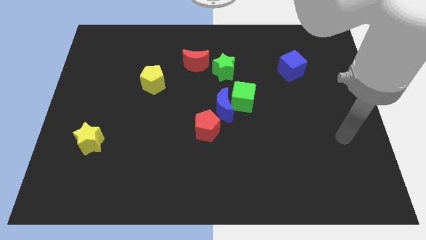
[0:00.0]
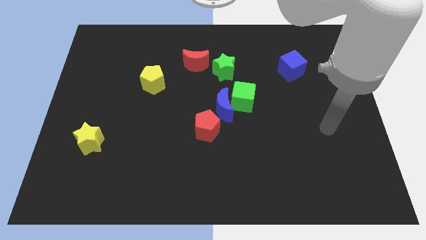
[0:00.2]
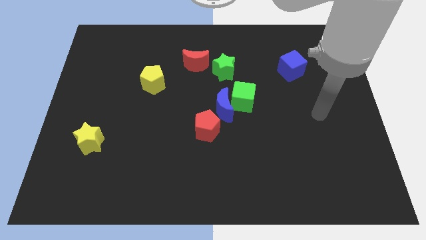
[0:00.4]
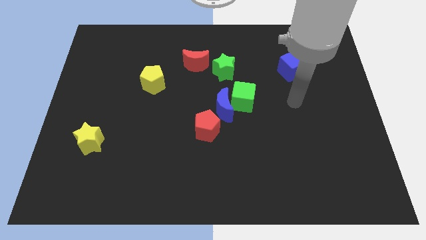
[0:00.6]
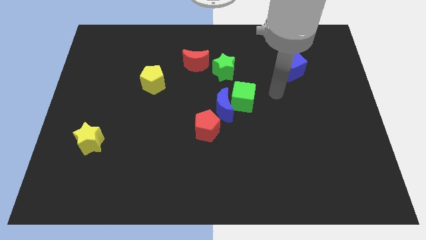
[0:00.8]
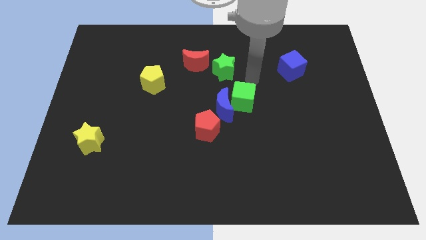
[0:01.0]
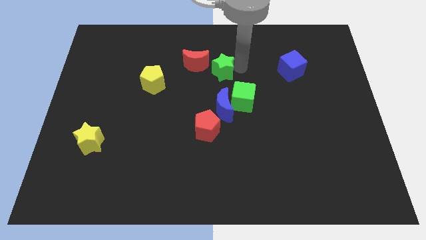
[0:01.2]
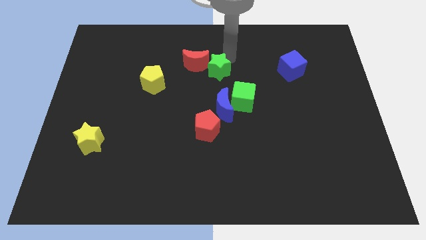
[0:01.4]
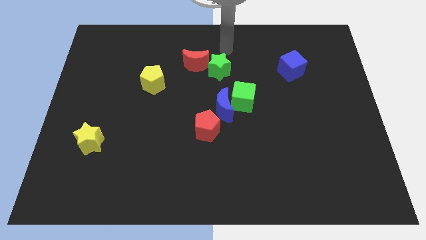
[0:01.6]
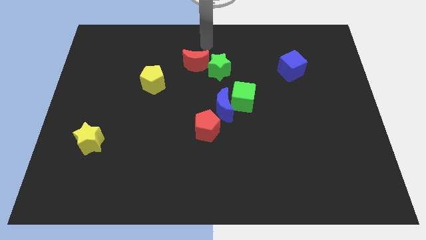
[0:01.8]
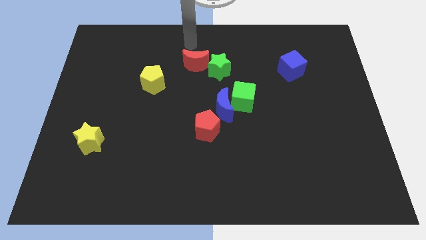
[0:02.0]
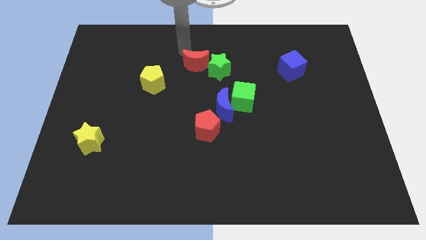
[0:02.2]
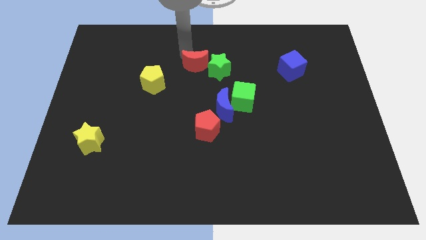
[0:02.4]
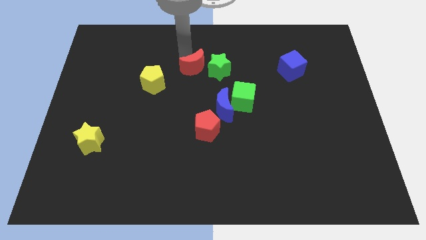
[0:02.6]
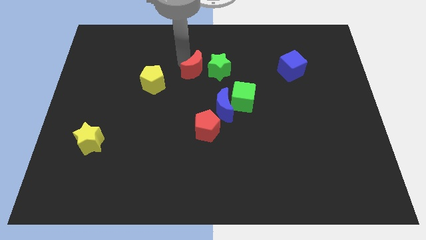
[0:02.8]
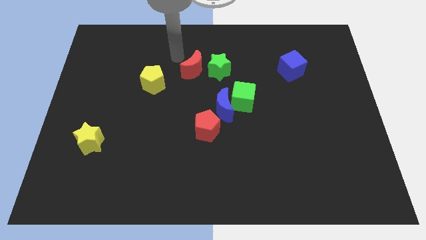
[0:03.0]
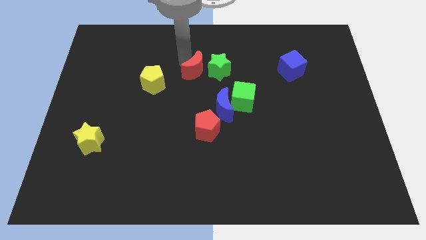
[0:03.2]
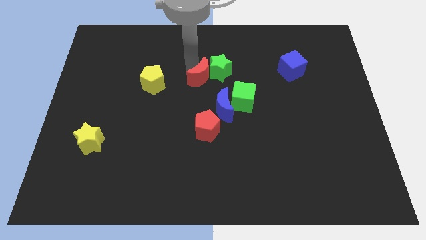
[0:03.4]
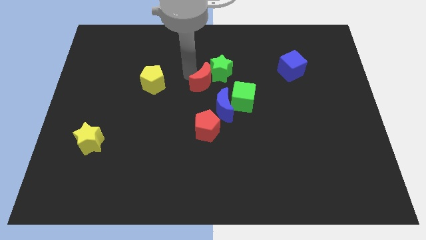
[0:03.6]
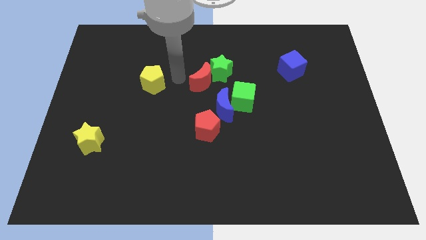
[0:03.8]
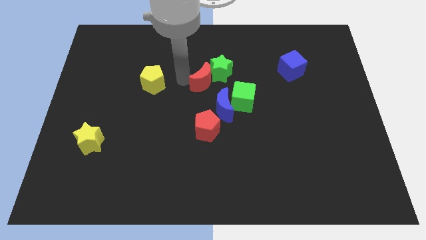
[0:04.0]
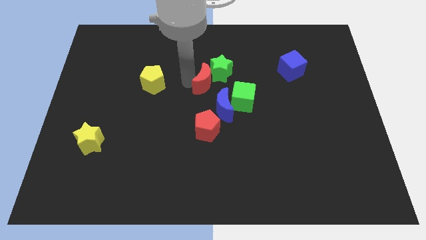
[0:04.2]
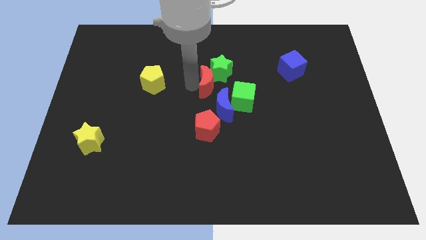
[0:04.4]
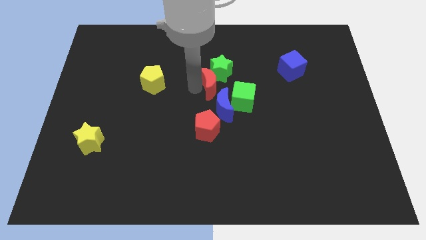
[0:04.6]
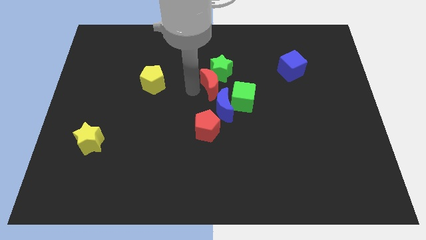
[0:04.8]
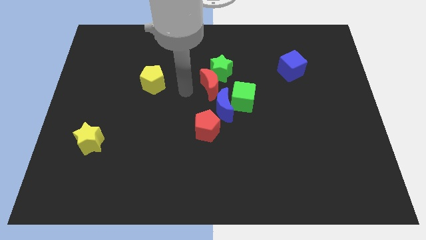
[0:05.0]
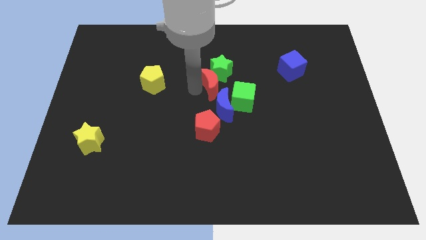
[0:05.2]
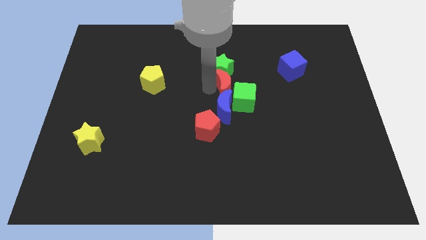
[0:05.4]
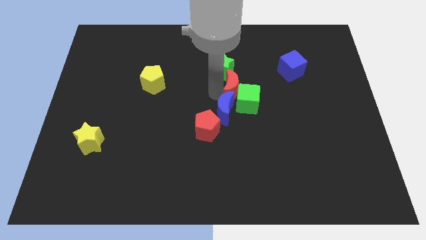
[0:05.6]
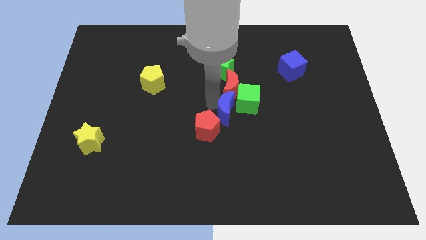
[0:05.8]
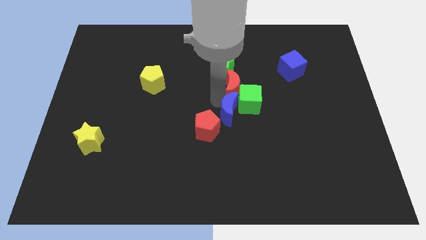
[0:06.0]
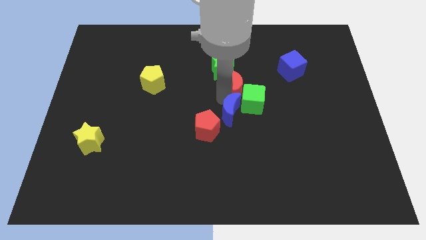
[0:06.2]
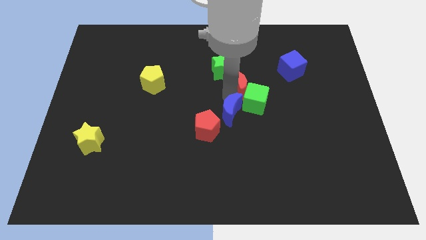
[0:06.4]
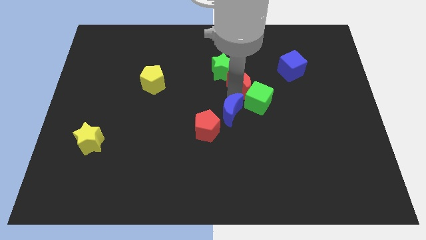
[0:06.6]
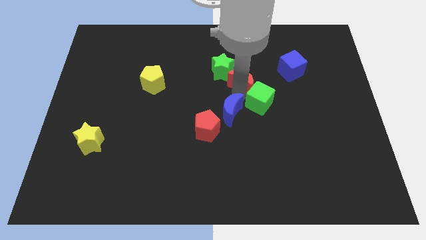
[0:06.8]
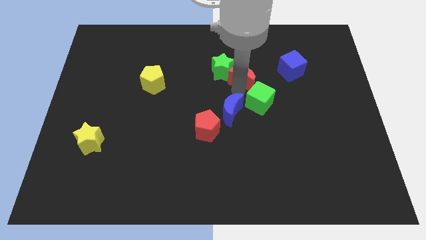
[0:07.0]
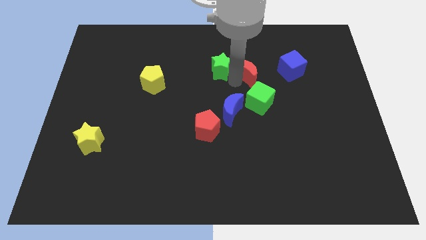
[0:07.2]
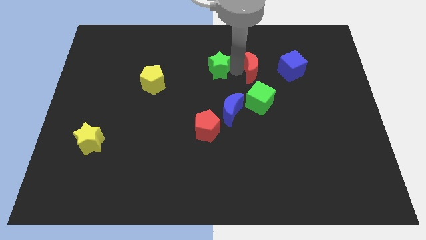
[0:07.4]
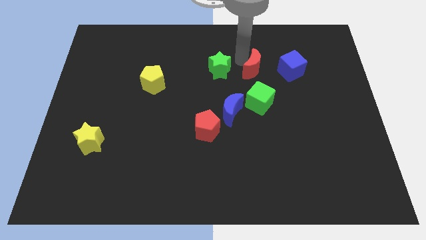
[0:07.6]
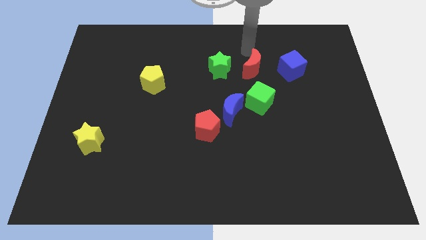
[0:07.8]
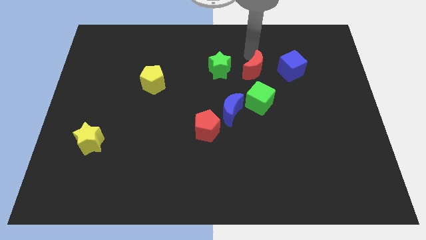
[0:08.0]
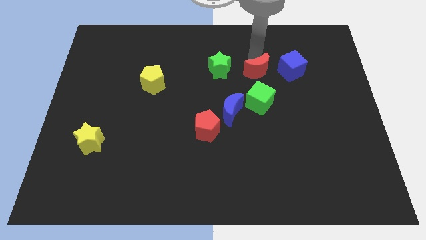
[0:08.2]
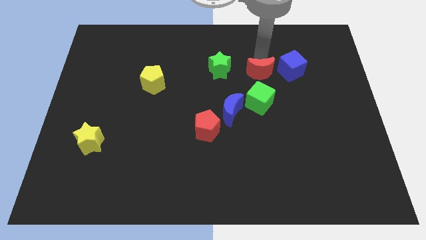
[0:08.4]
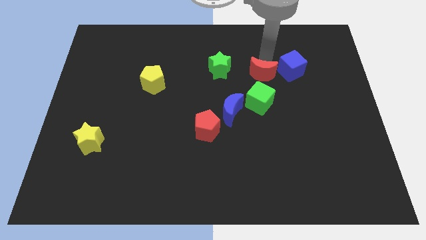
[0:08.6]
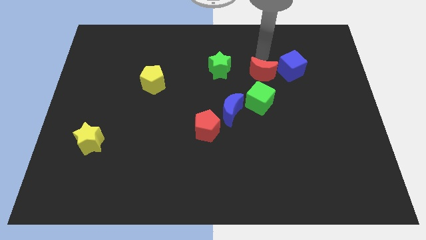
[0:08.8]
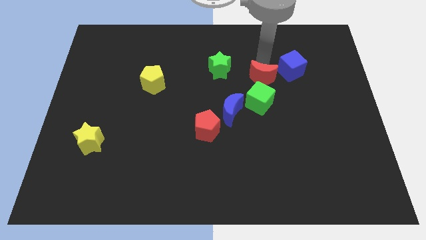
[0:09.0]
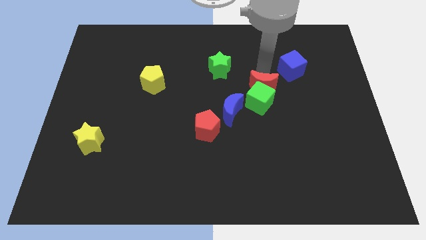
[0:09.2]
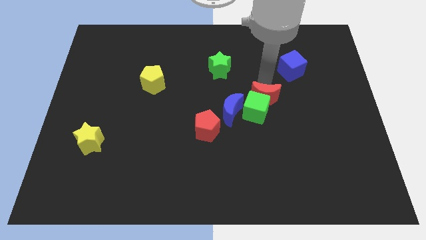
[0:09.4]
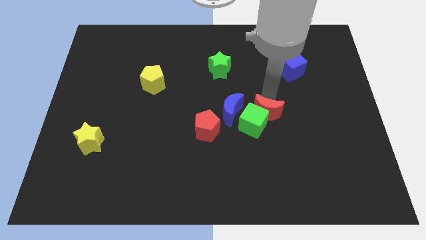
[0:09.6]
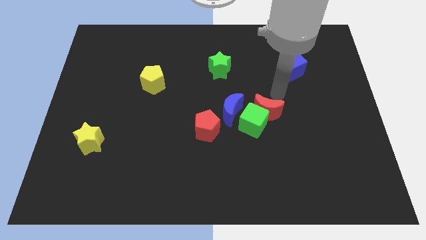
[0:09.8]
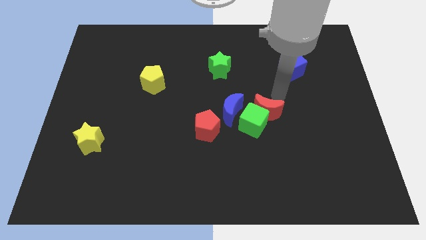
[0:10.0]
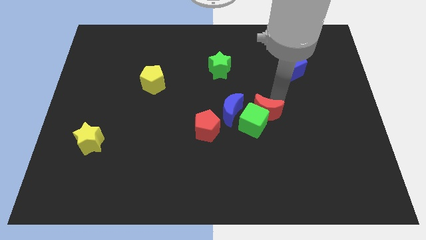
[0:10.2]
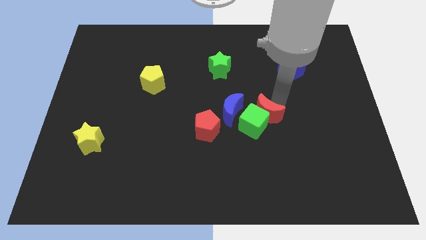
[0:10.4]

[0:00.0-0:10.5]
move the red moon to the right of the red pentagon

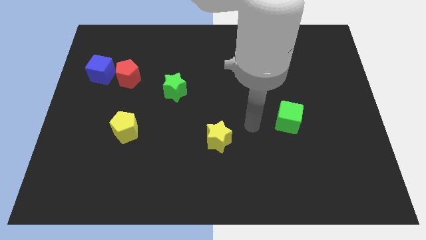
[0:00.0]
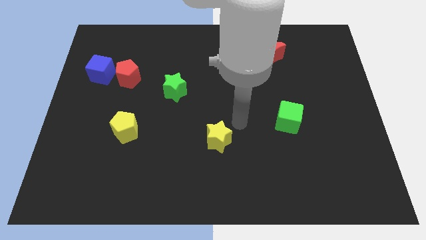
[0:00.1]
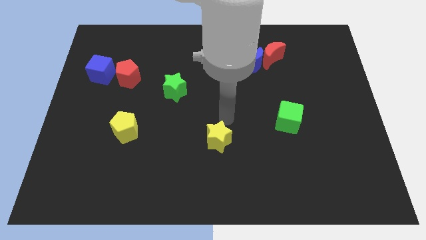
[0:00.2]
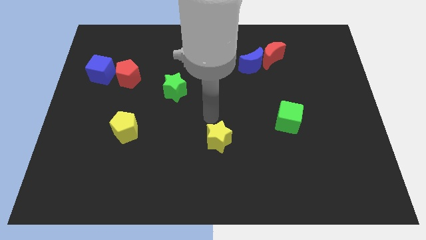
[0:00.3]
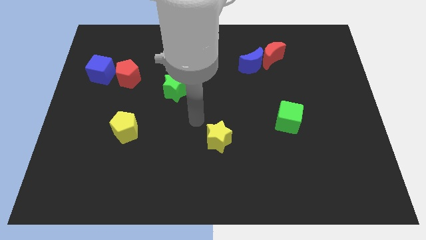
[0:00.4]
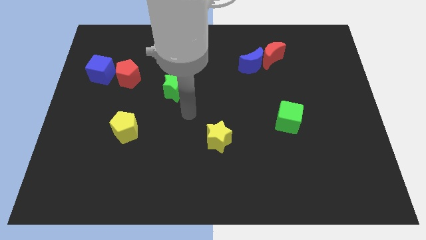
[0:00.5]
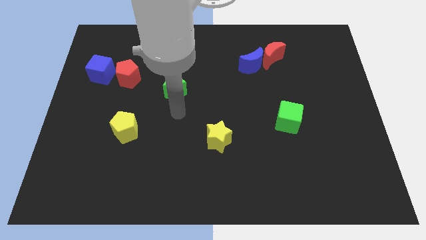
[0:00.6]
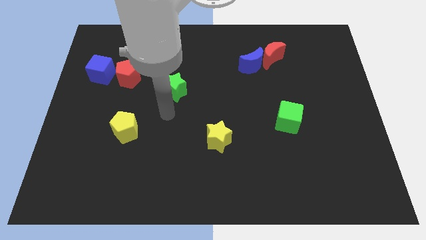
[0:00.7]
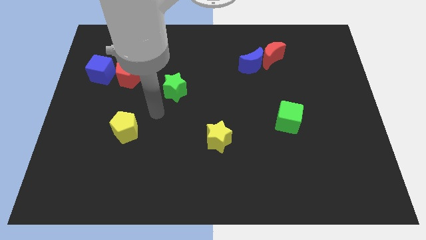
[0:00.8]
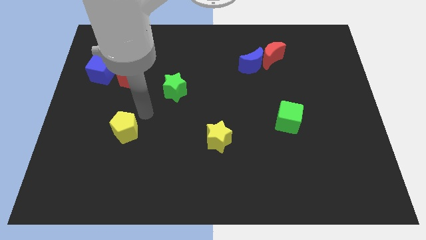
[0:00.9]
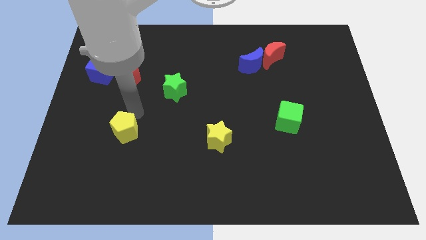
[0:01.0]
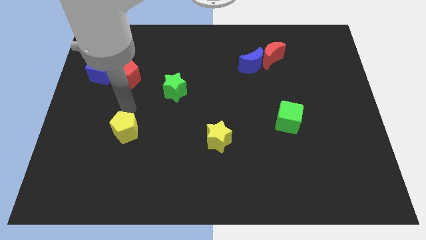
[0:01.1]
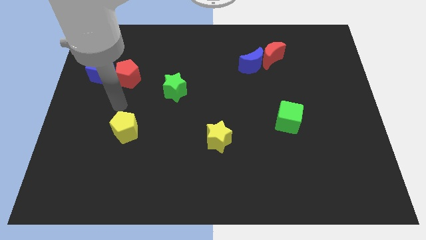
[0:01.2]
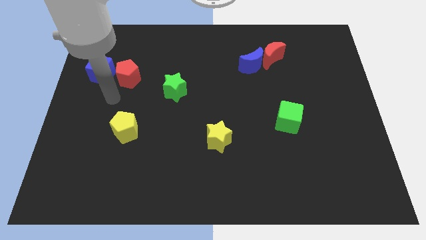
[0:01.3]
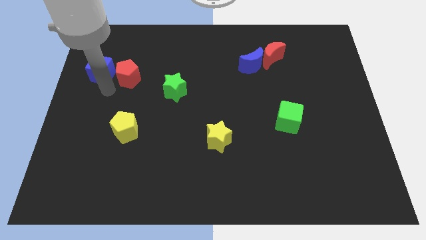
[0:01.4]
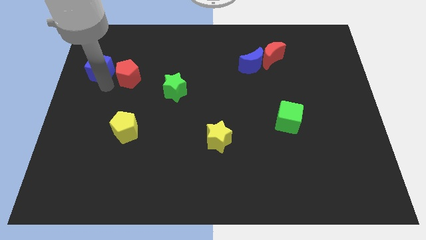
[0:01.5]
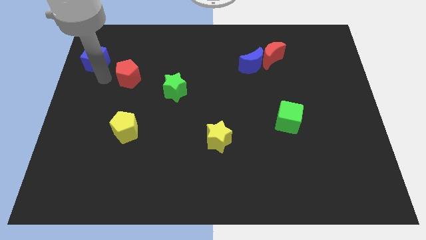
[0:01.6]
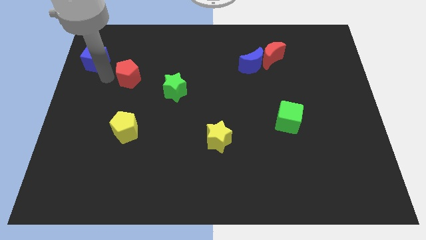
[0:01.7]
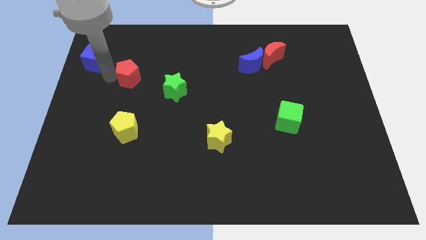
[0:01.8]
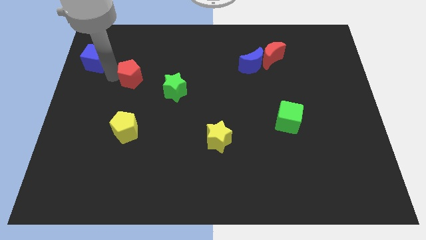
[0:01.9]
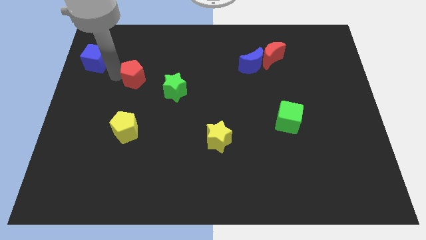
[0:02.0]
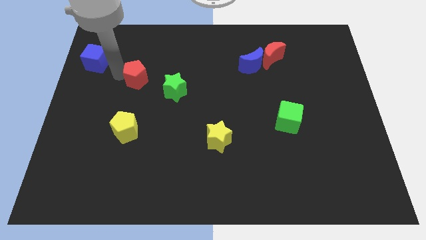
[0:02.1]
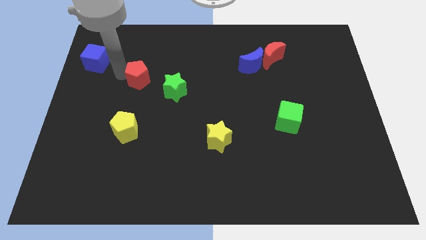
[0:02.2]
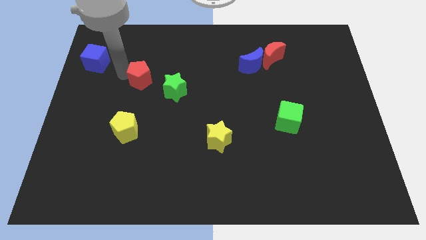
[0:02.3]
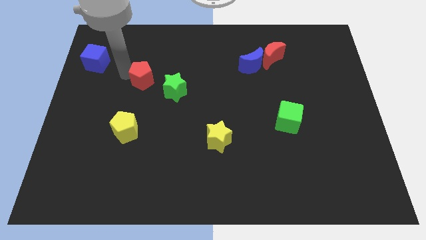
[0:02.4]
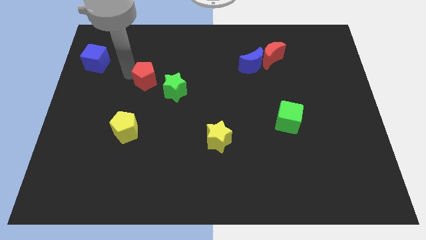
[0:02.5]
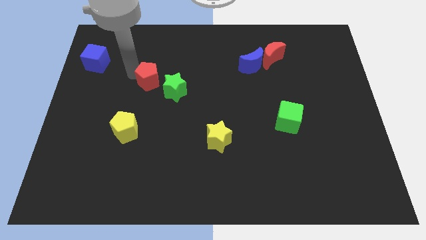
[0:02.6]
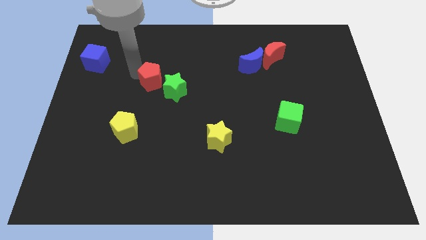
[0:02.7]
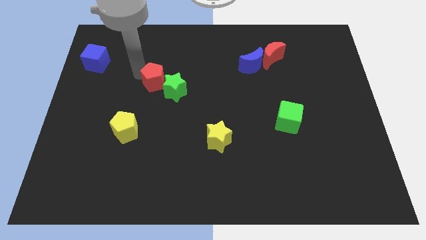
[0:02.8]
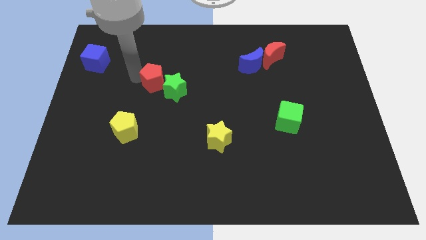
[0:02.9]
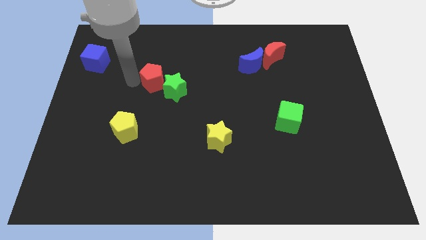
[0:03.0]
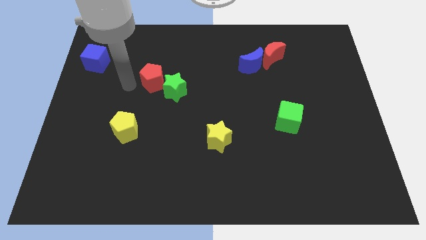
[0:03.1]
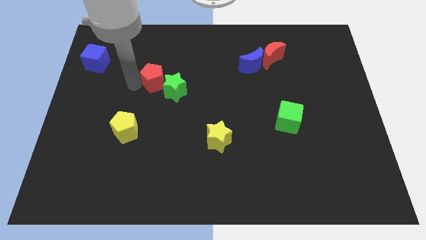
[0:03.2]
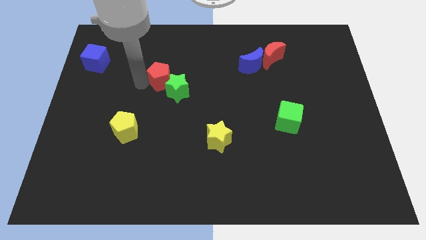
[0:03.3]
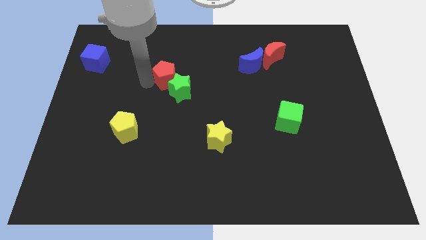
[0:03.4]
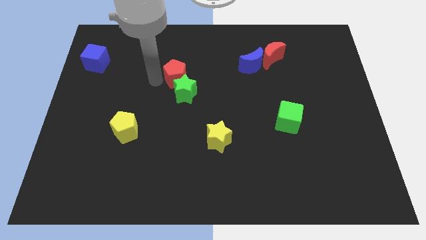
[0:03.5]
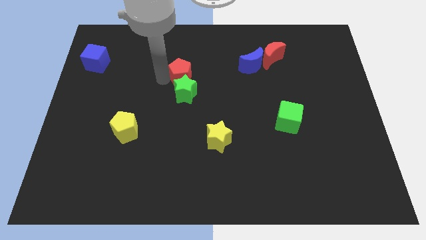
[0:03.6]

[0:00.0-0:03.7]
move the red pentagon to the top right side of the green star
